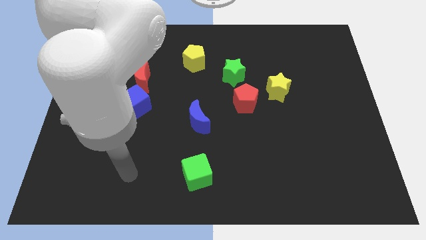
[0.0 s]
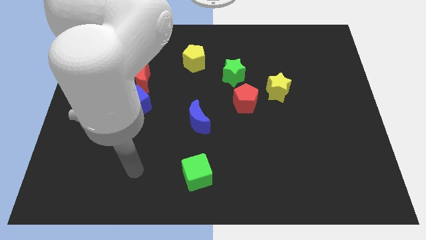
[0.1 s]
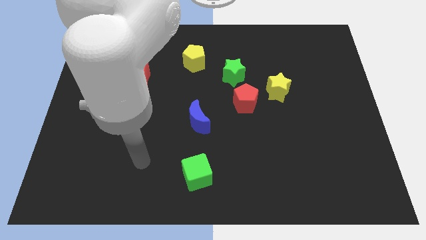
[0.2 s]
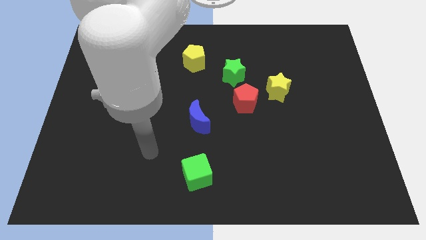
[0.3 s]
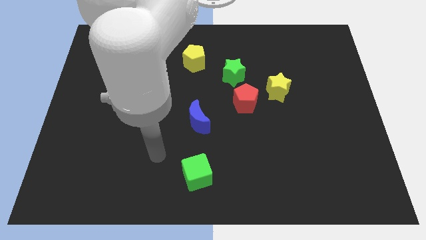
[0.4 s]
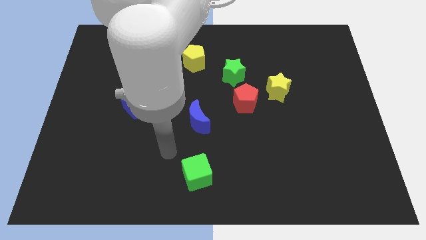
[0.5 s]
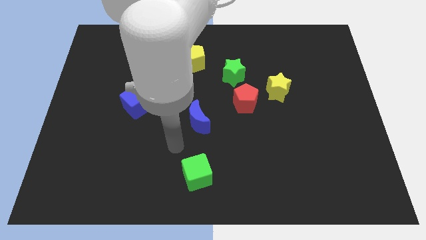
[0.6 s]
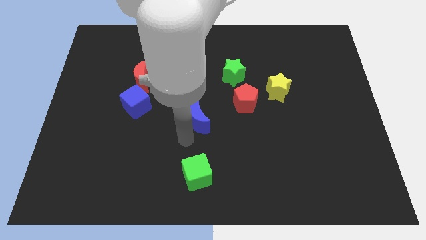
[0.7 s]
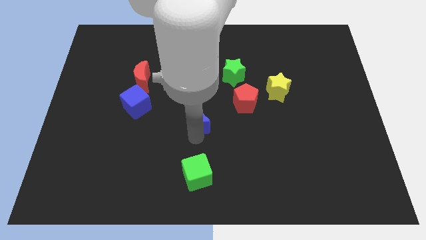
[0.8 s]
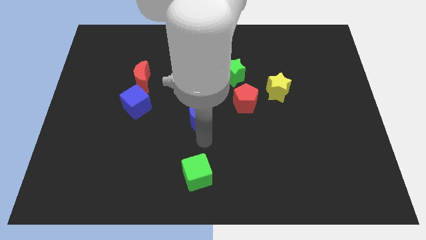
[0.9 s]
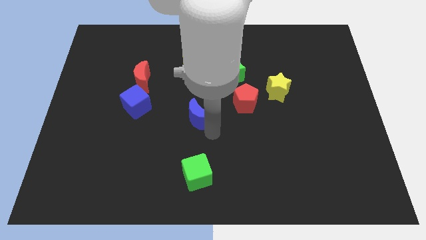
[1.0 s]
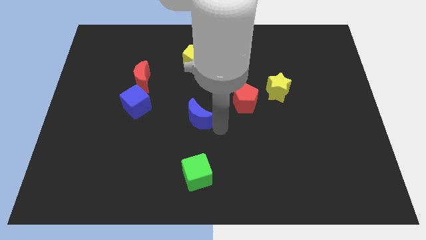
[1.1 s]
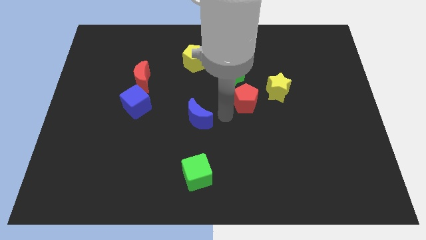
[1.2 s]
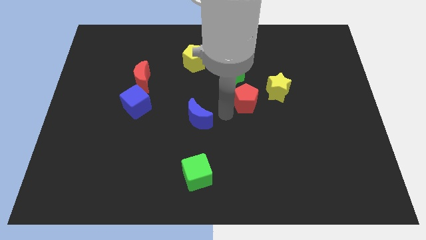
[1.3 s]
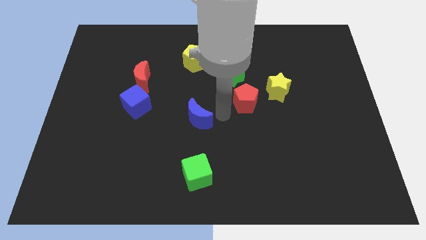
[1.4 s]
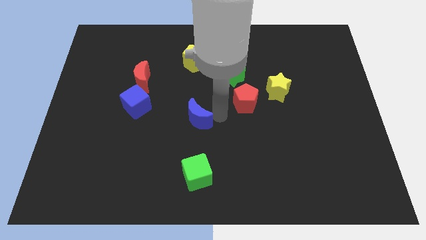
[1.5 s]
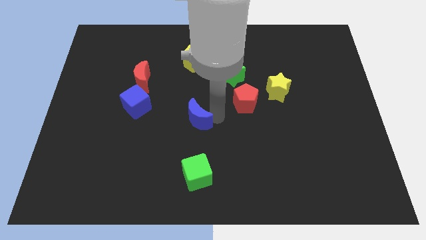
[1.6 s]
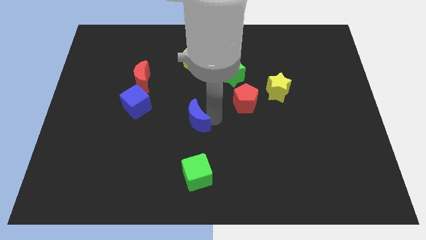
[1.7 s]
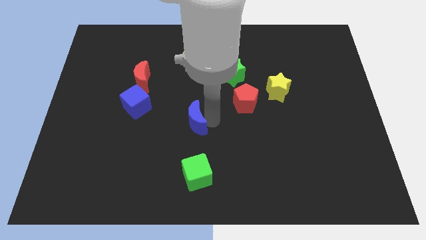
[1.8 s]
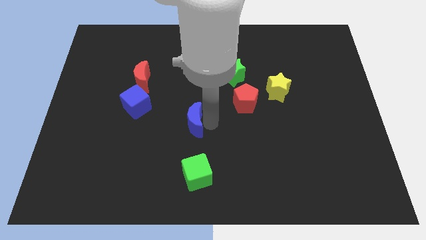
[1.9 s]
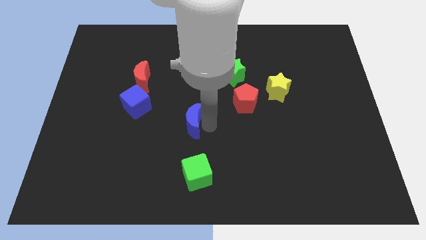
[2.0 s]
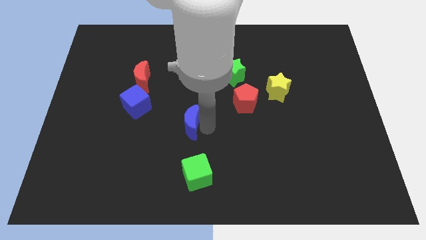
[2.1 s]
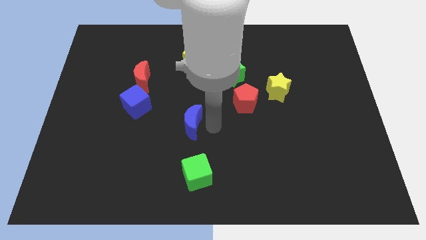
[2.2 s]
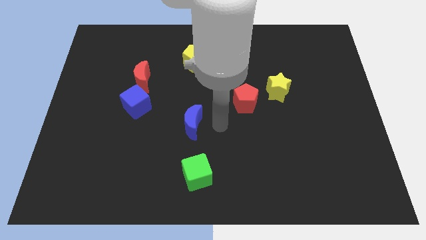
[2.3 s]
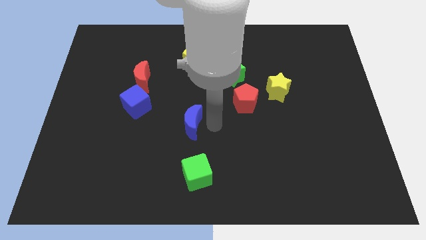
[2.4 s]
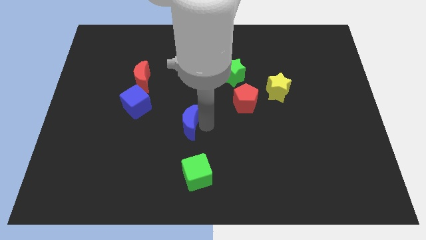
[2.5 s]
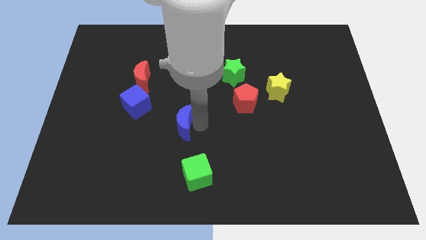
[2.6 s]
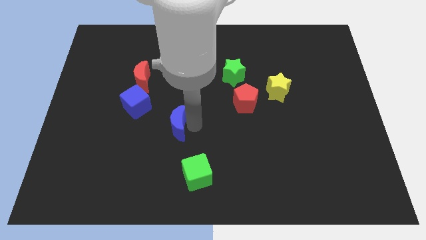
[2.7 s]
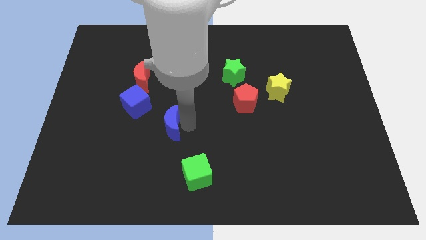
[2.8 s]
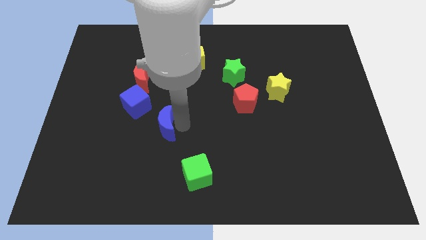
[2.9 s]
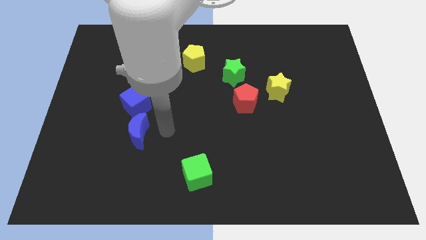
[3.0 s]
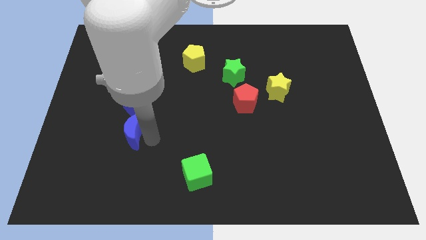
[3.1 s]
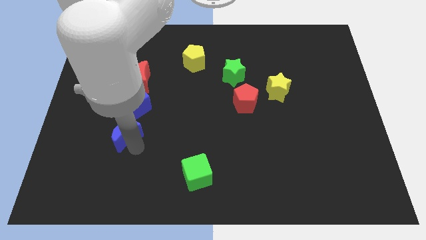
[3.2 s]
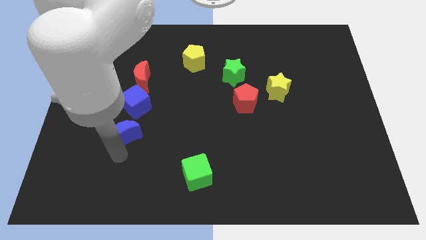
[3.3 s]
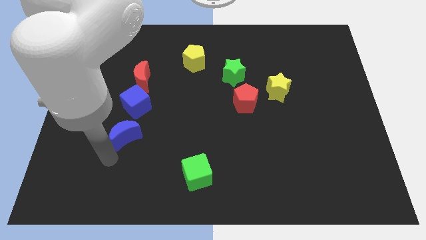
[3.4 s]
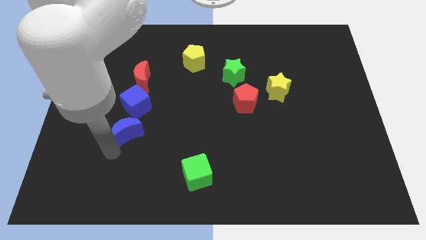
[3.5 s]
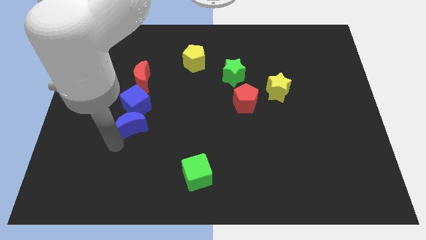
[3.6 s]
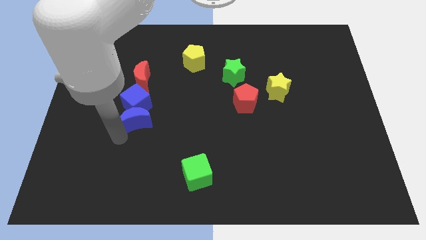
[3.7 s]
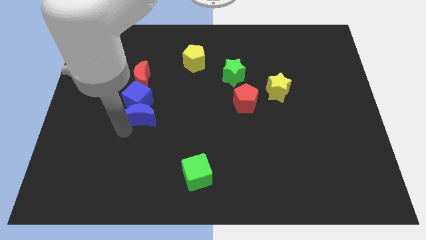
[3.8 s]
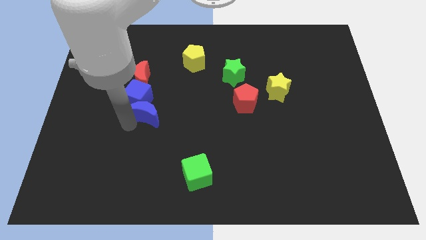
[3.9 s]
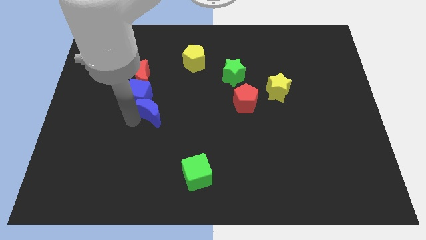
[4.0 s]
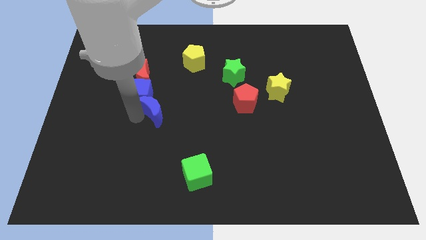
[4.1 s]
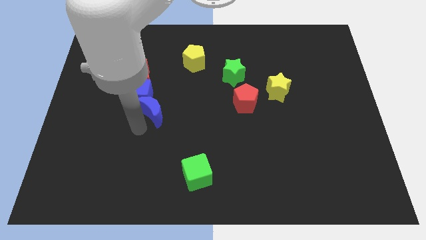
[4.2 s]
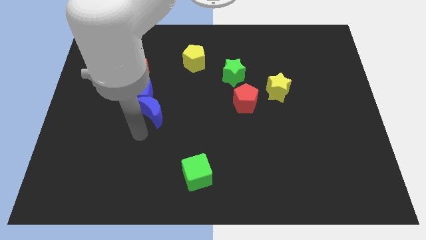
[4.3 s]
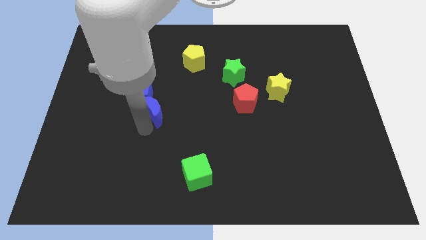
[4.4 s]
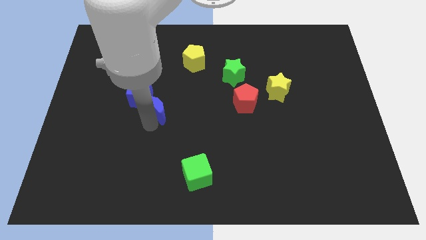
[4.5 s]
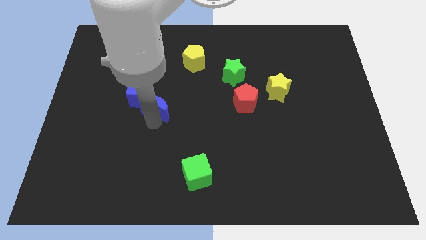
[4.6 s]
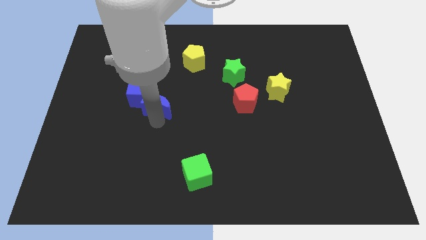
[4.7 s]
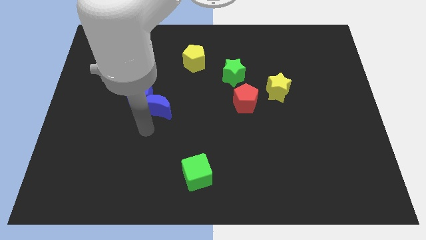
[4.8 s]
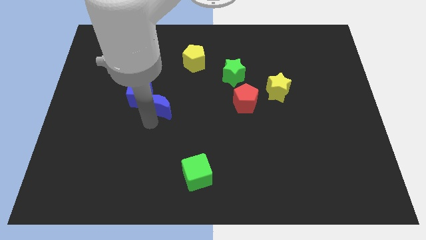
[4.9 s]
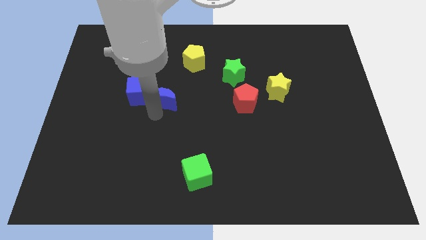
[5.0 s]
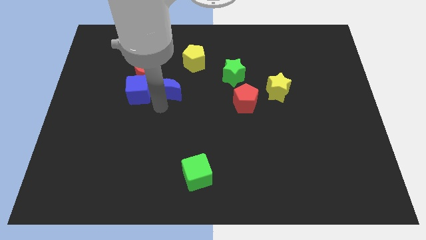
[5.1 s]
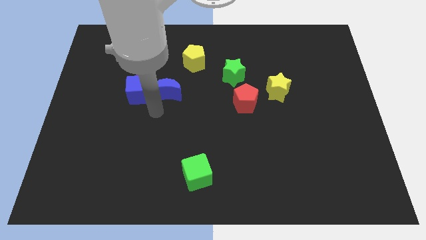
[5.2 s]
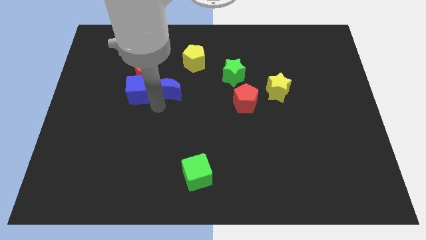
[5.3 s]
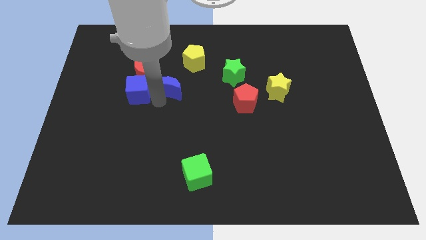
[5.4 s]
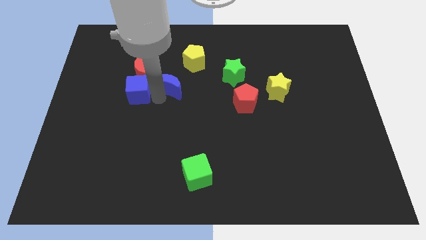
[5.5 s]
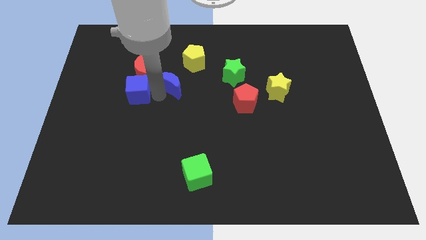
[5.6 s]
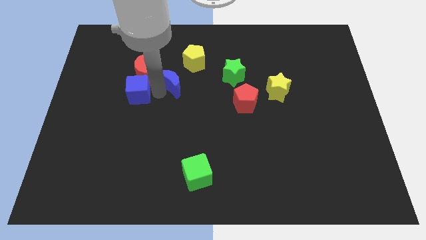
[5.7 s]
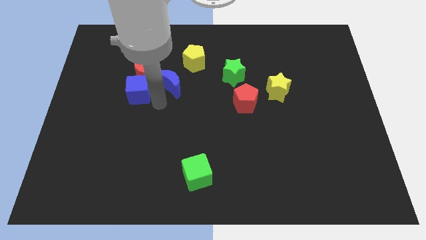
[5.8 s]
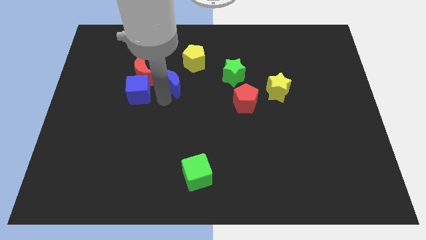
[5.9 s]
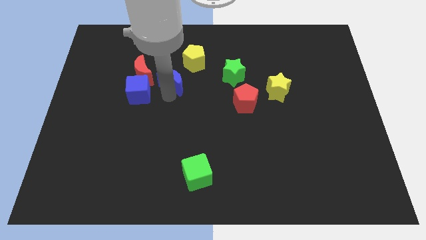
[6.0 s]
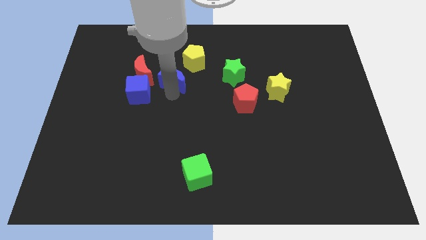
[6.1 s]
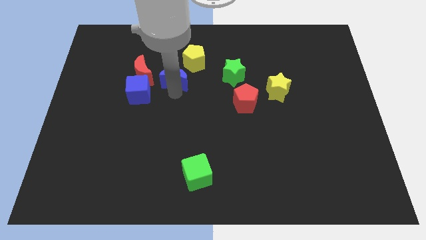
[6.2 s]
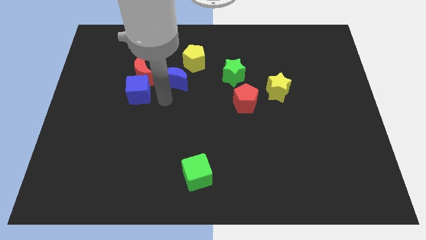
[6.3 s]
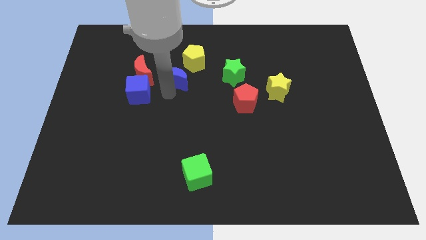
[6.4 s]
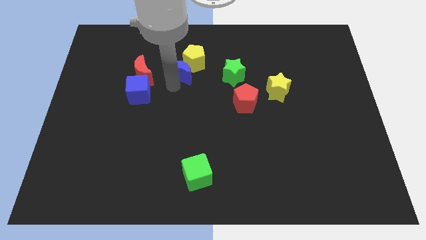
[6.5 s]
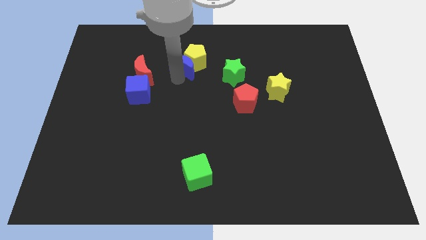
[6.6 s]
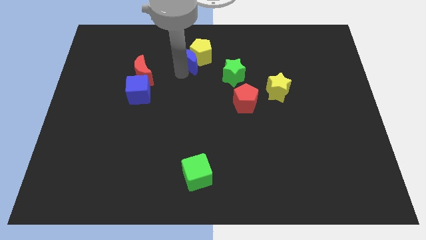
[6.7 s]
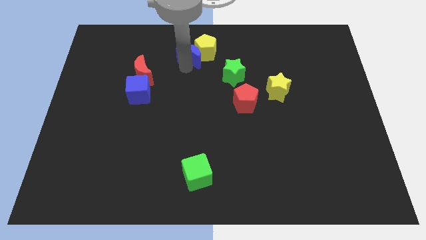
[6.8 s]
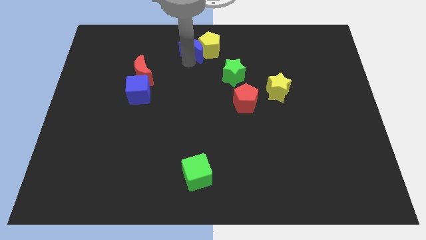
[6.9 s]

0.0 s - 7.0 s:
put the blue moon to the top side
